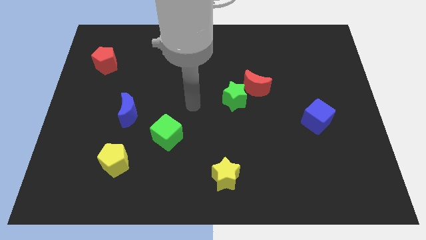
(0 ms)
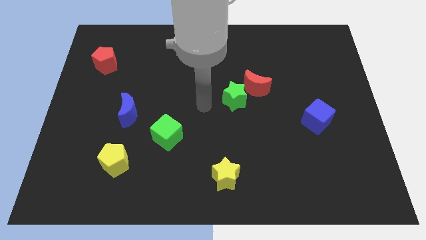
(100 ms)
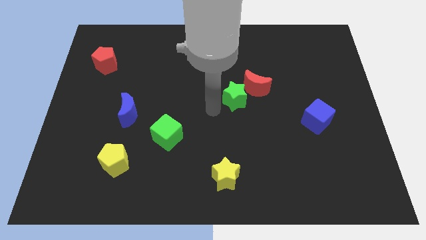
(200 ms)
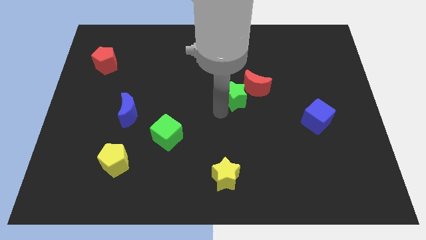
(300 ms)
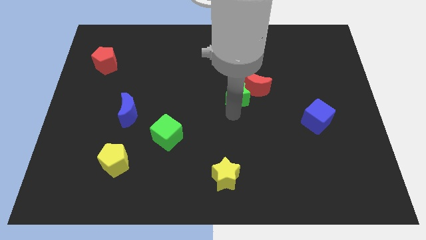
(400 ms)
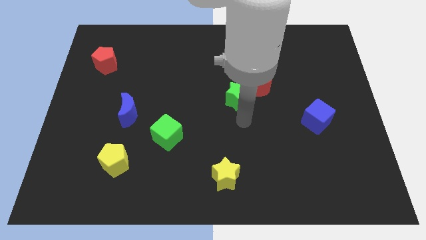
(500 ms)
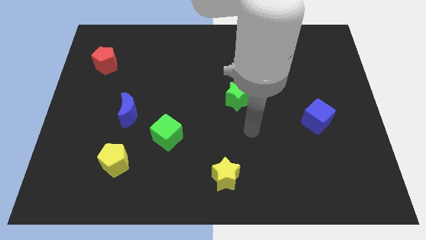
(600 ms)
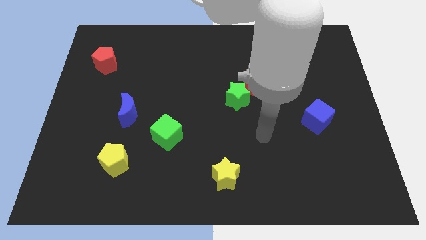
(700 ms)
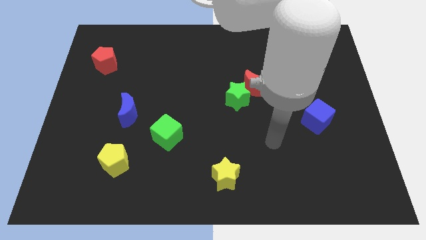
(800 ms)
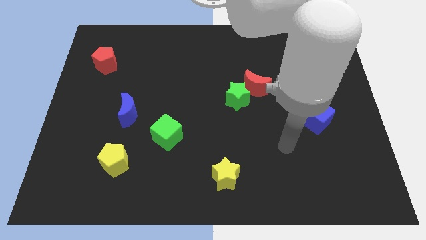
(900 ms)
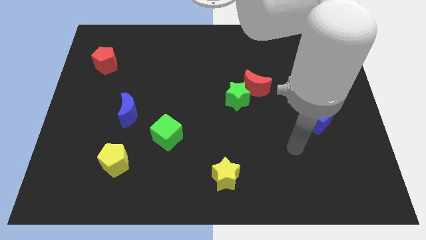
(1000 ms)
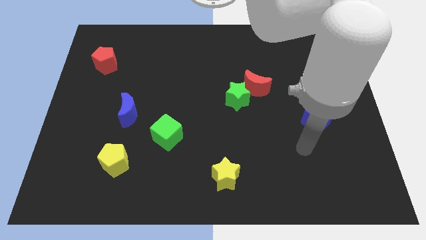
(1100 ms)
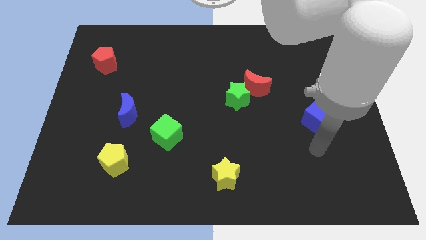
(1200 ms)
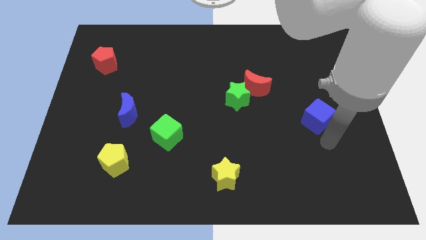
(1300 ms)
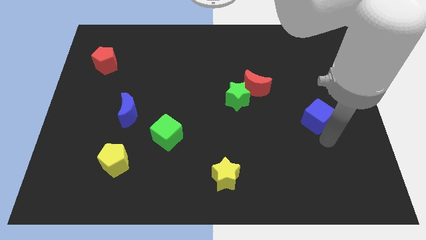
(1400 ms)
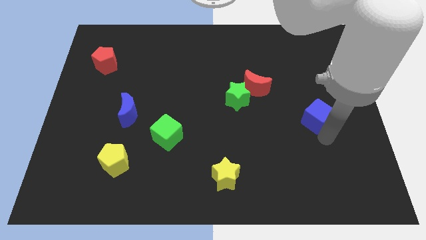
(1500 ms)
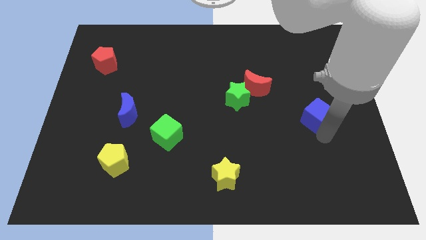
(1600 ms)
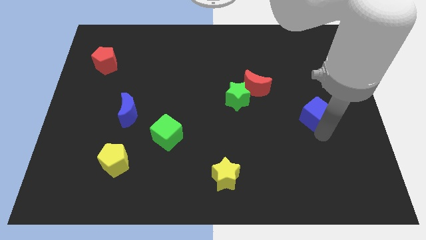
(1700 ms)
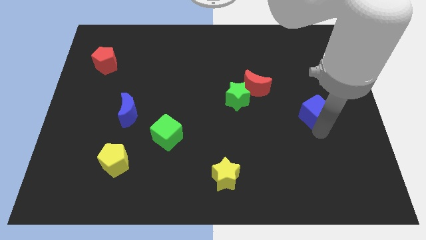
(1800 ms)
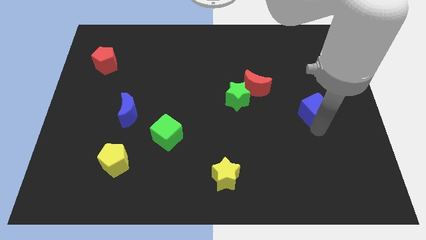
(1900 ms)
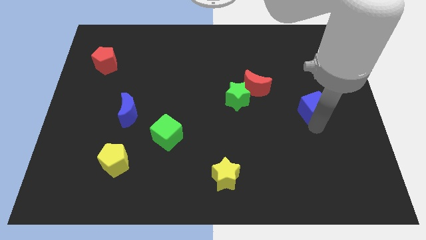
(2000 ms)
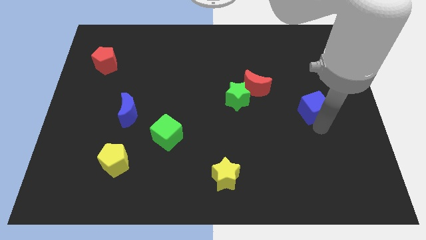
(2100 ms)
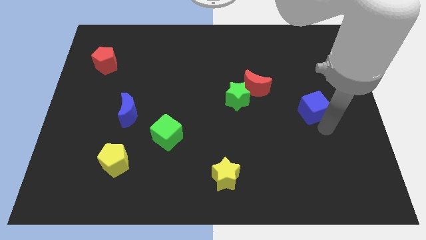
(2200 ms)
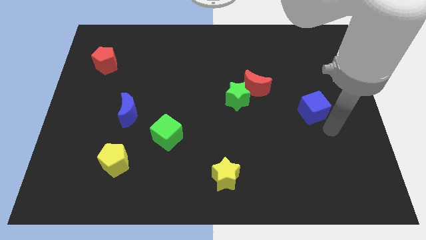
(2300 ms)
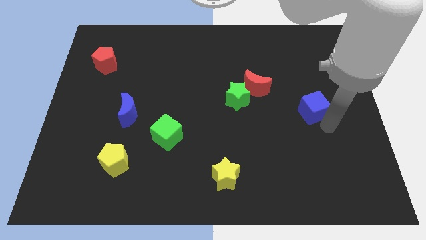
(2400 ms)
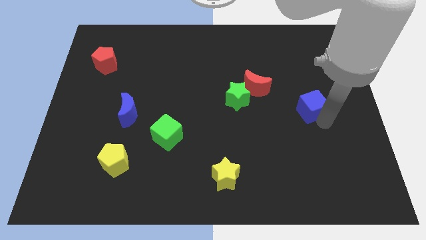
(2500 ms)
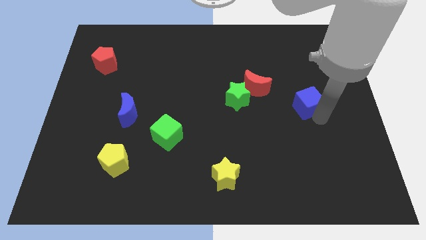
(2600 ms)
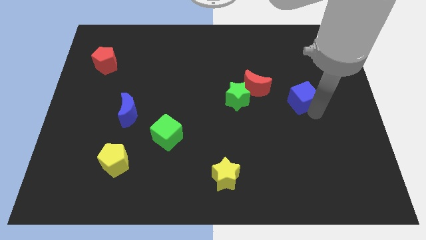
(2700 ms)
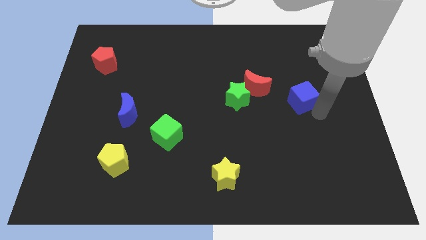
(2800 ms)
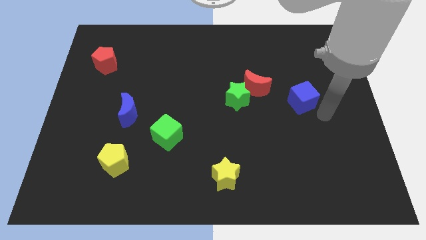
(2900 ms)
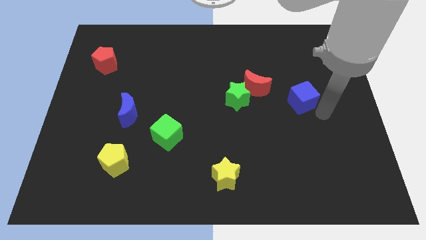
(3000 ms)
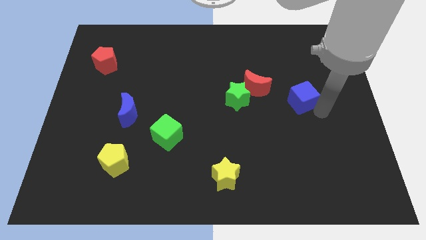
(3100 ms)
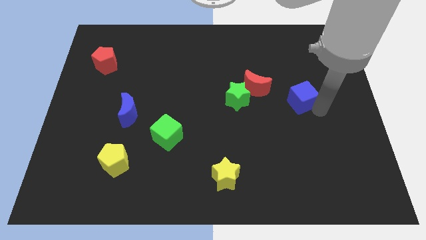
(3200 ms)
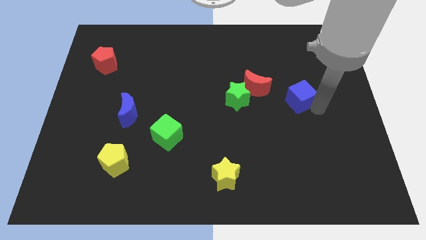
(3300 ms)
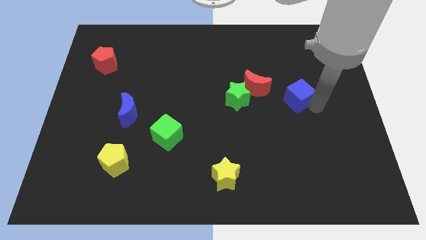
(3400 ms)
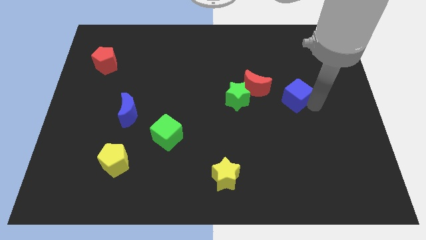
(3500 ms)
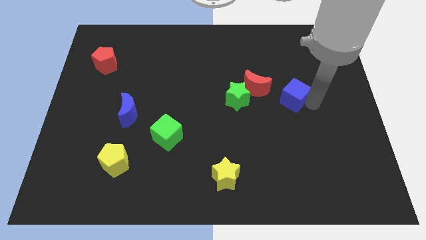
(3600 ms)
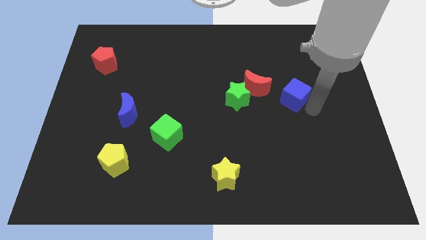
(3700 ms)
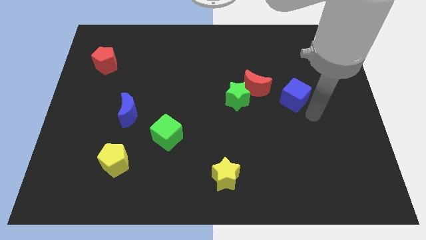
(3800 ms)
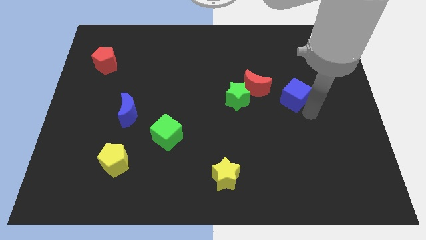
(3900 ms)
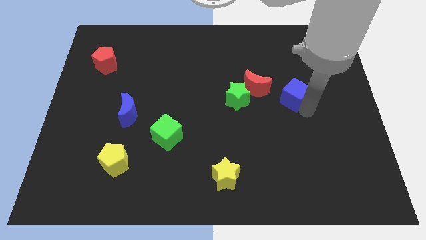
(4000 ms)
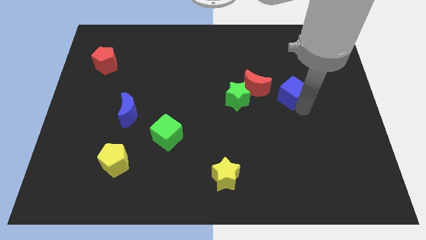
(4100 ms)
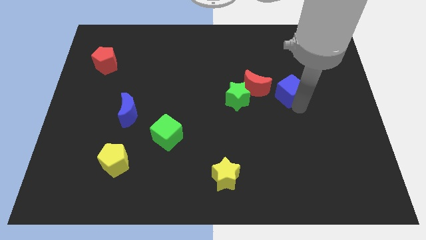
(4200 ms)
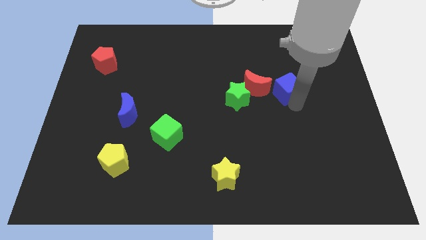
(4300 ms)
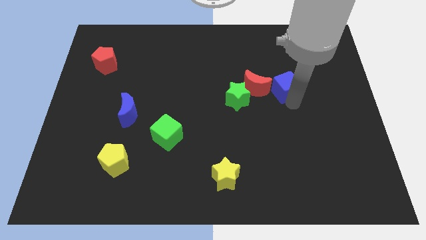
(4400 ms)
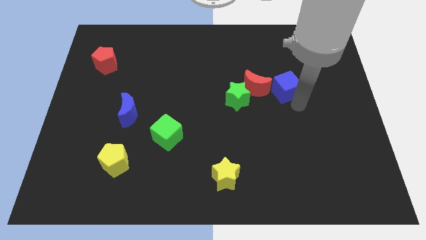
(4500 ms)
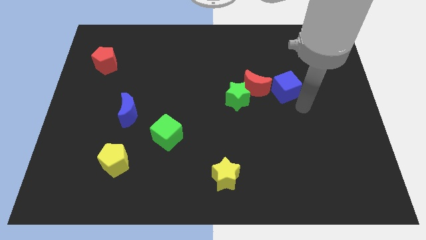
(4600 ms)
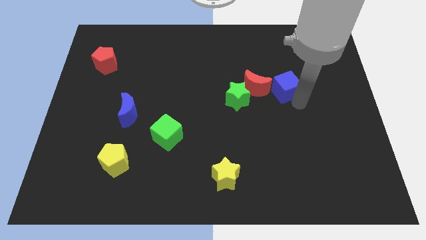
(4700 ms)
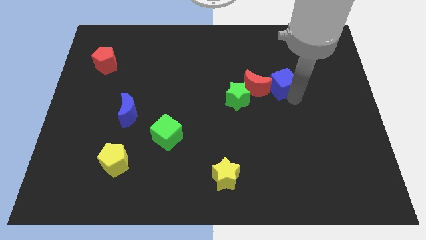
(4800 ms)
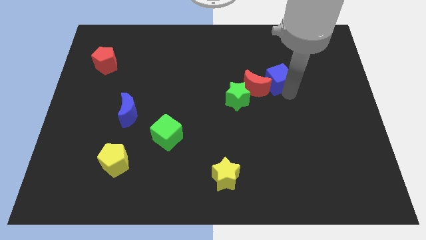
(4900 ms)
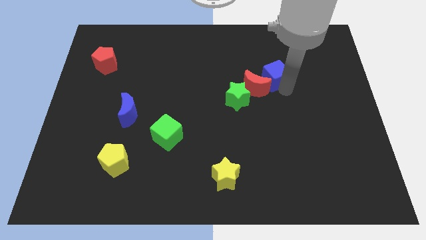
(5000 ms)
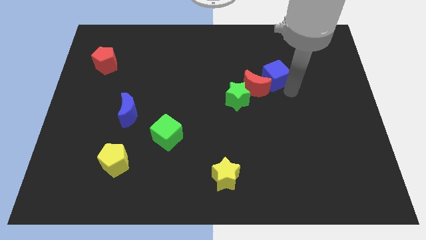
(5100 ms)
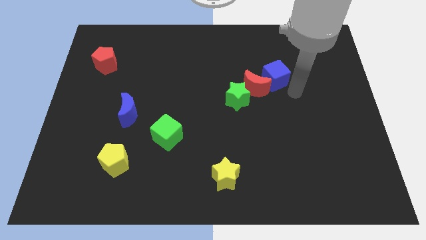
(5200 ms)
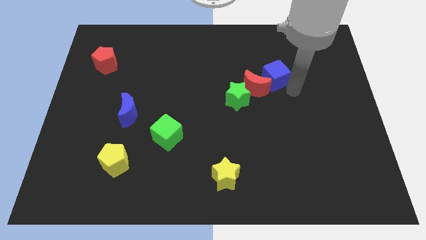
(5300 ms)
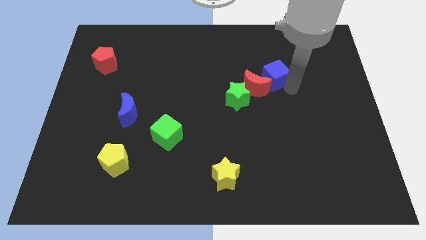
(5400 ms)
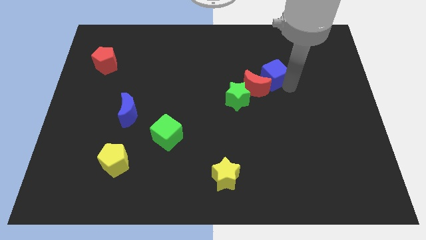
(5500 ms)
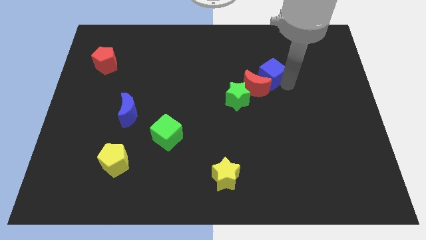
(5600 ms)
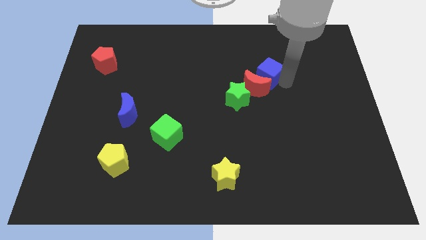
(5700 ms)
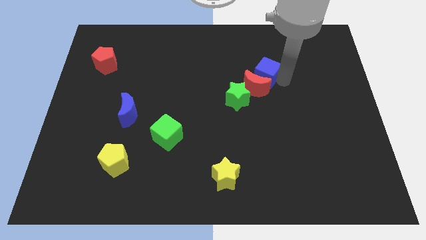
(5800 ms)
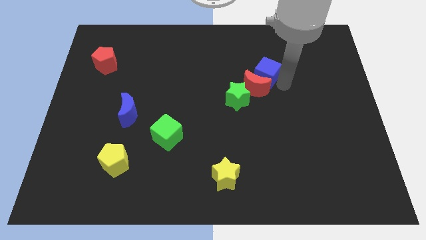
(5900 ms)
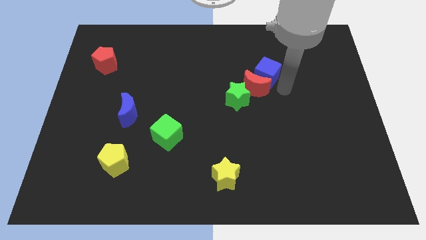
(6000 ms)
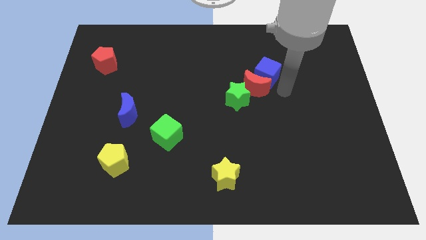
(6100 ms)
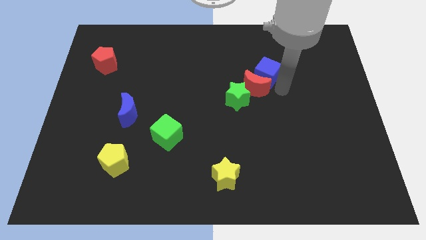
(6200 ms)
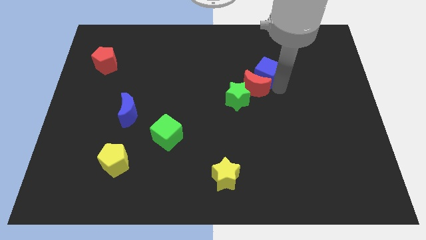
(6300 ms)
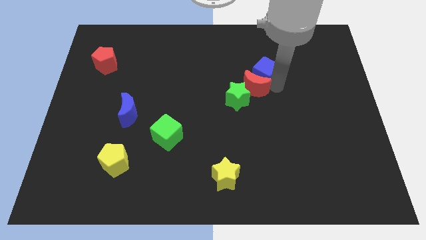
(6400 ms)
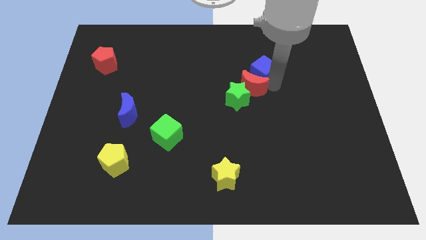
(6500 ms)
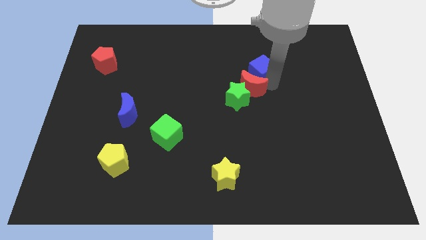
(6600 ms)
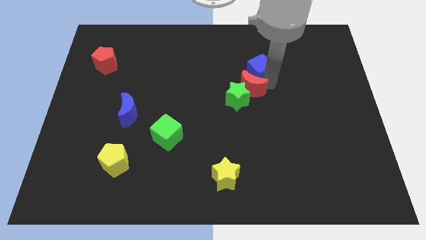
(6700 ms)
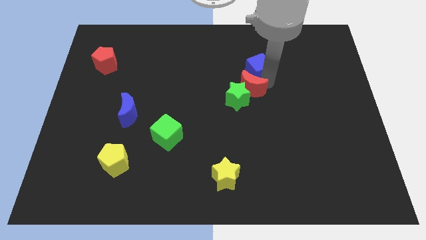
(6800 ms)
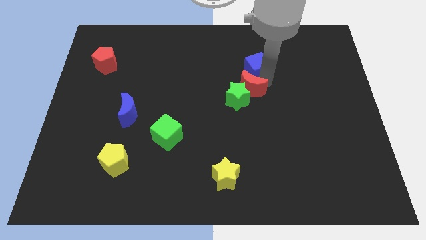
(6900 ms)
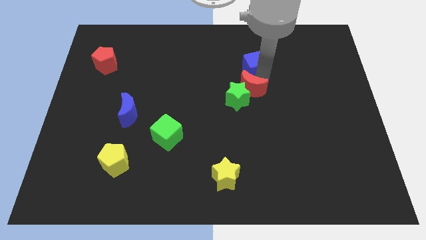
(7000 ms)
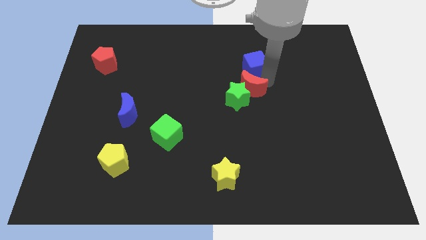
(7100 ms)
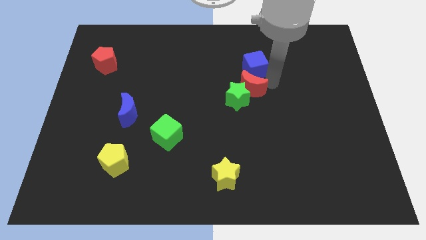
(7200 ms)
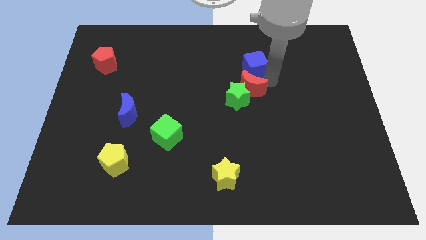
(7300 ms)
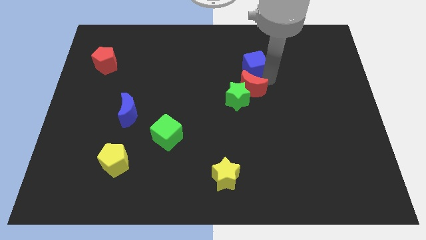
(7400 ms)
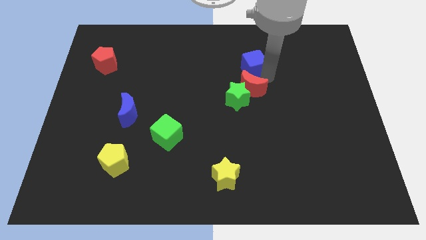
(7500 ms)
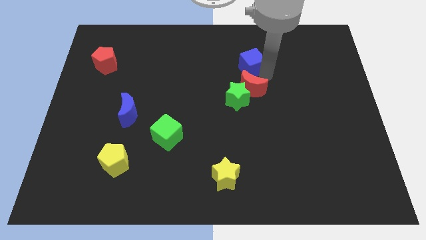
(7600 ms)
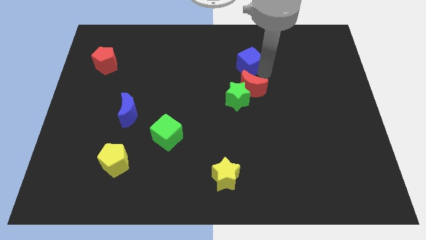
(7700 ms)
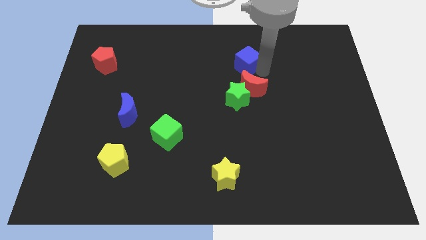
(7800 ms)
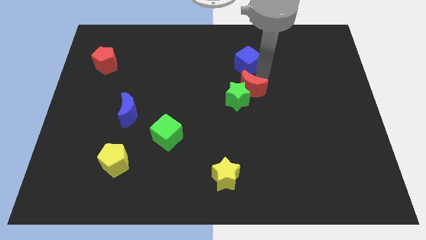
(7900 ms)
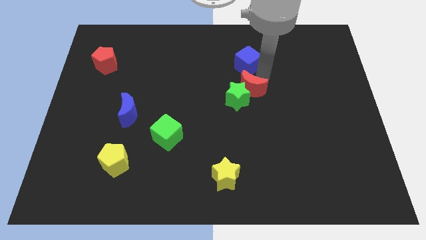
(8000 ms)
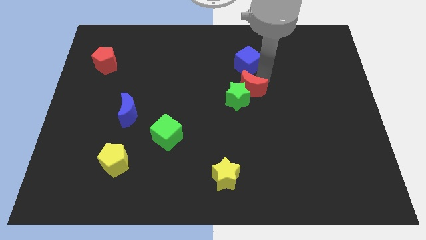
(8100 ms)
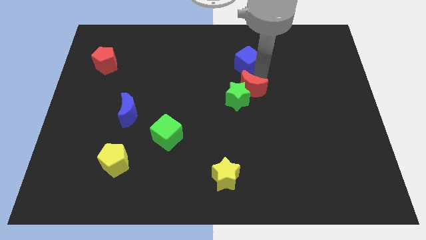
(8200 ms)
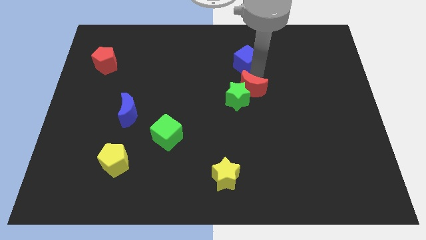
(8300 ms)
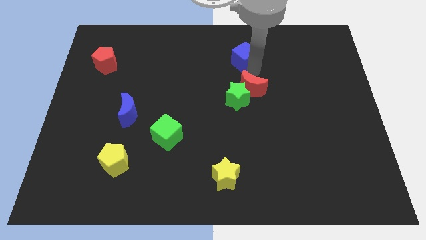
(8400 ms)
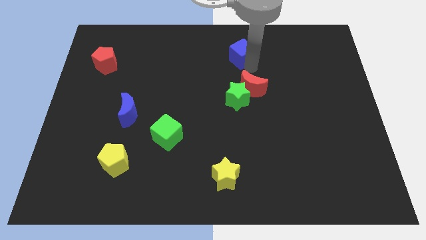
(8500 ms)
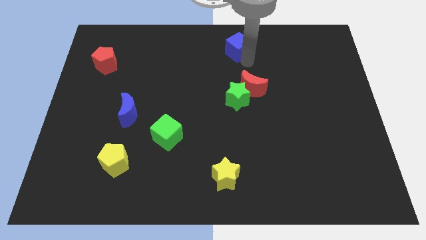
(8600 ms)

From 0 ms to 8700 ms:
put the blue cube to the top side
